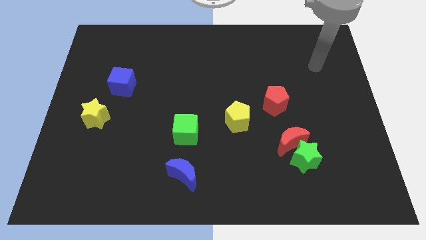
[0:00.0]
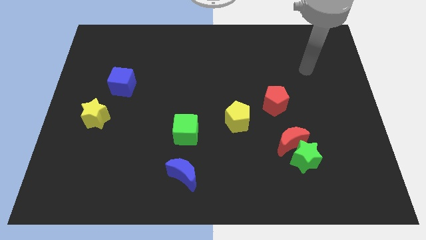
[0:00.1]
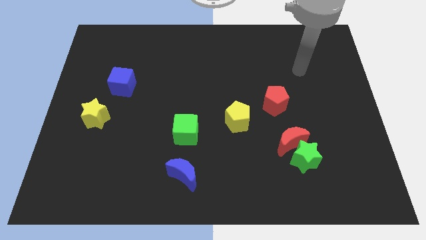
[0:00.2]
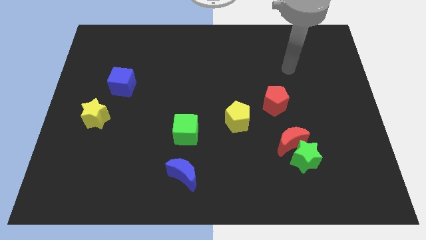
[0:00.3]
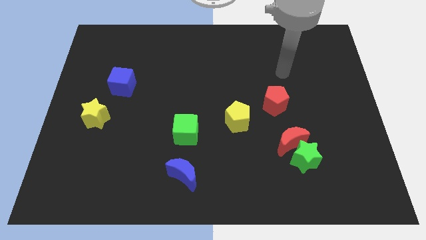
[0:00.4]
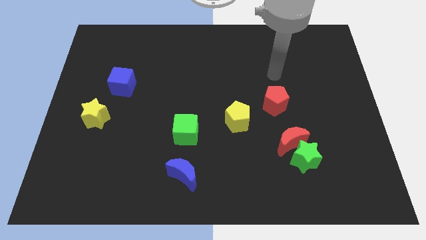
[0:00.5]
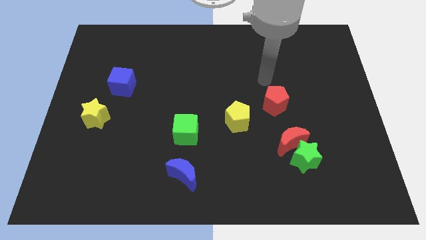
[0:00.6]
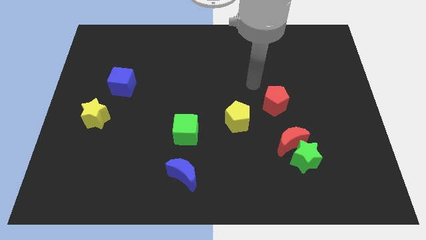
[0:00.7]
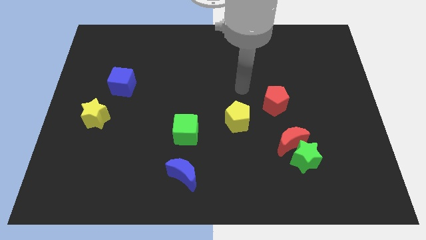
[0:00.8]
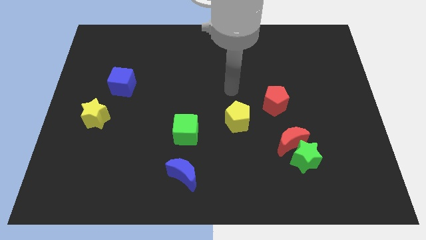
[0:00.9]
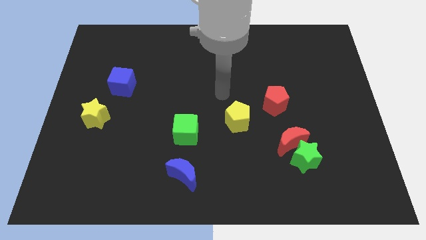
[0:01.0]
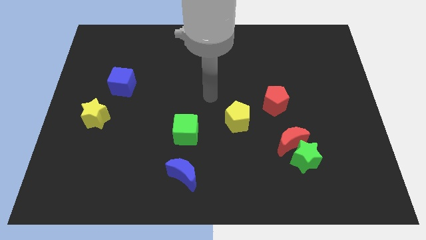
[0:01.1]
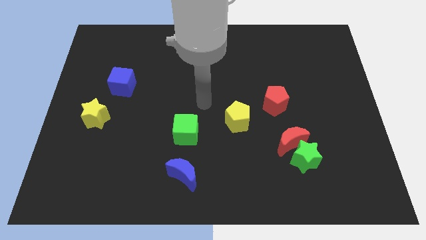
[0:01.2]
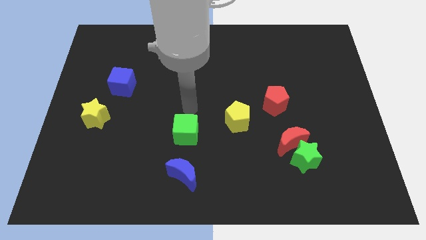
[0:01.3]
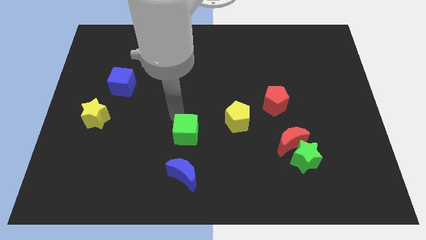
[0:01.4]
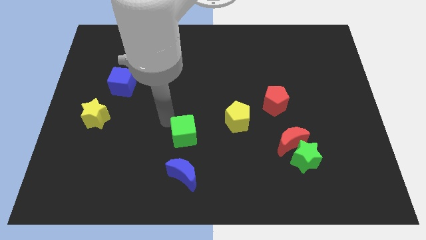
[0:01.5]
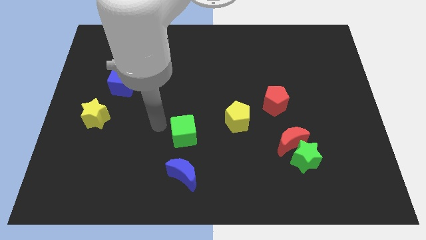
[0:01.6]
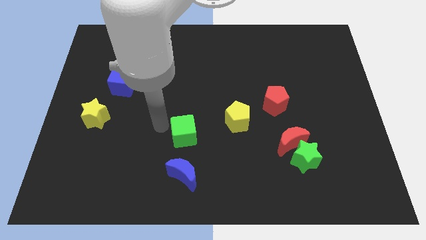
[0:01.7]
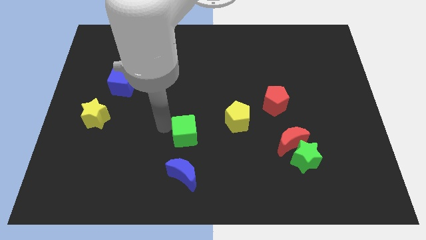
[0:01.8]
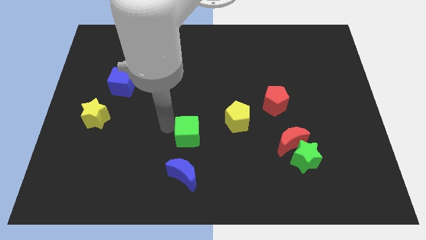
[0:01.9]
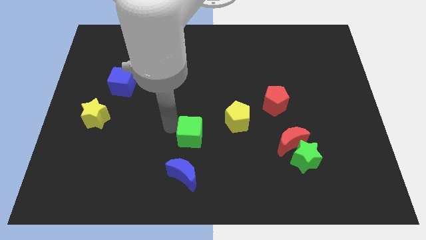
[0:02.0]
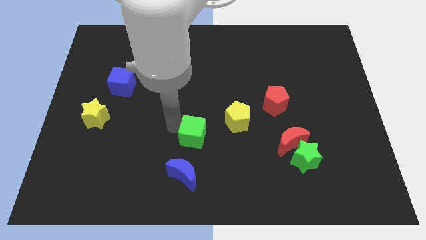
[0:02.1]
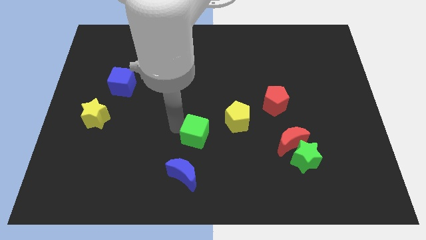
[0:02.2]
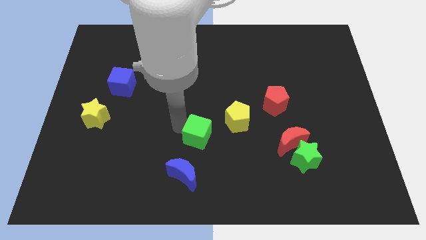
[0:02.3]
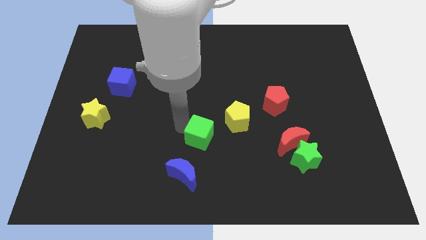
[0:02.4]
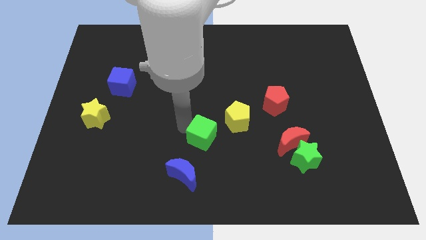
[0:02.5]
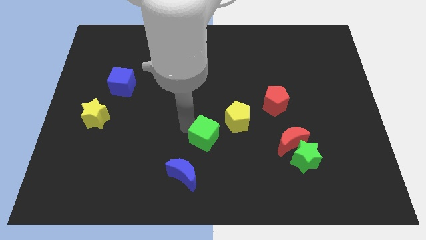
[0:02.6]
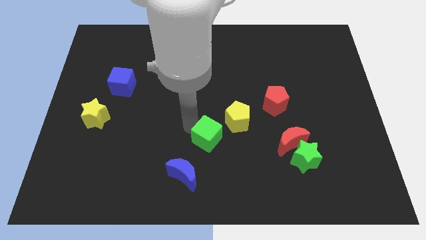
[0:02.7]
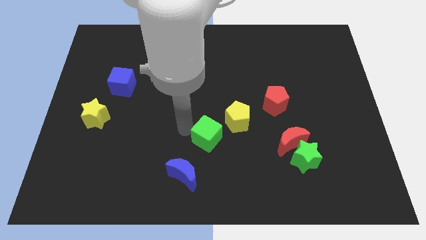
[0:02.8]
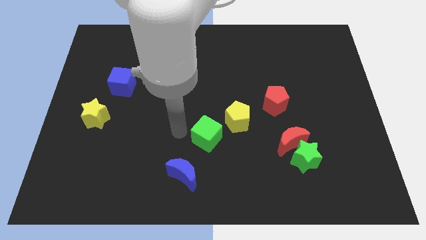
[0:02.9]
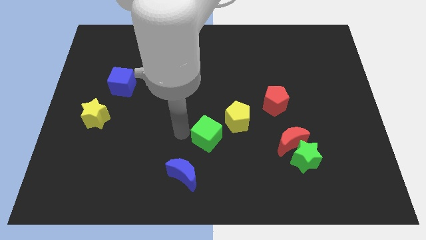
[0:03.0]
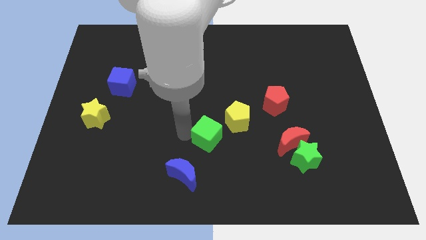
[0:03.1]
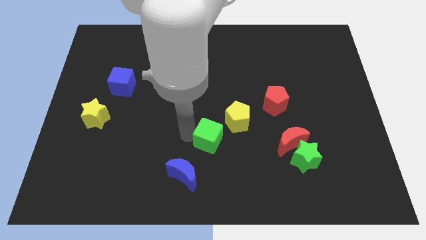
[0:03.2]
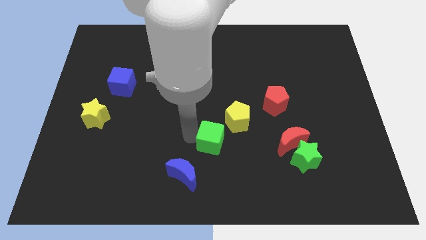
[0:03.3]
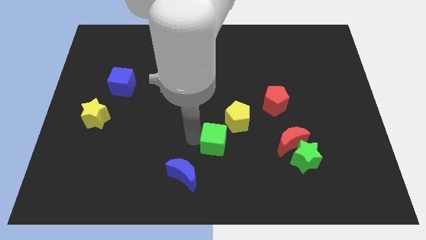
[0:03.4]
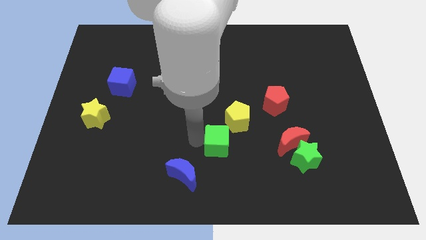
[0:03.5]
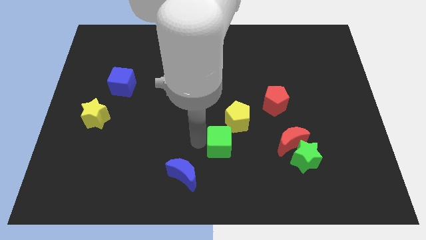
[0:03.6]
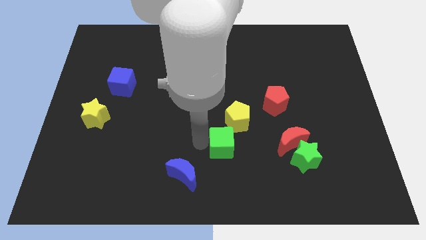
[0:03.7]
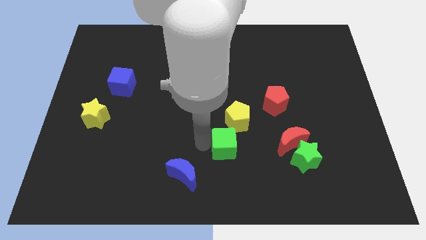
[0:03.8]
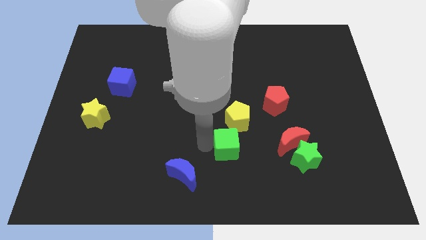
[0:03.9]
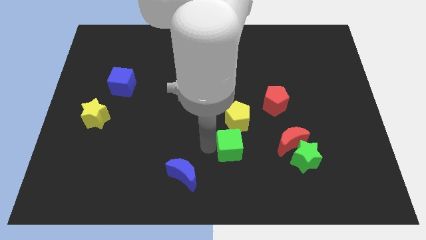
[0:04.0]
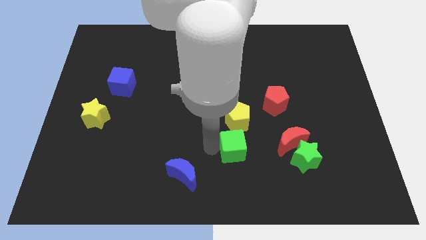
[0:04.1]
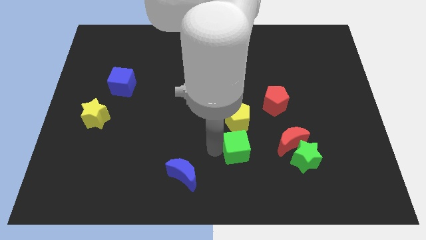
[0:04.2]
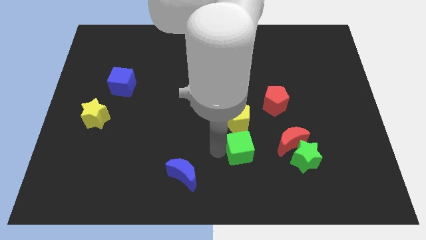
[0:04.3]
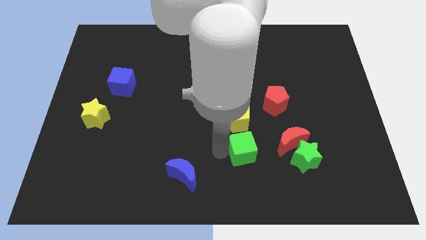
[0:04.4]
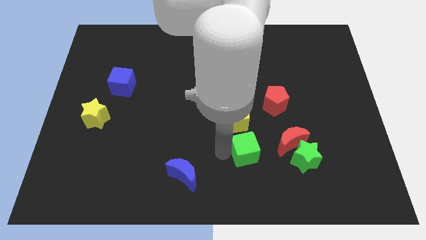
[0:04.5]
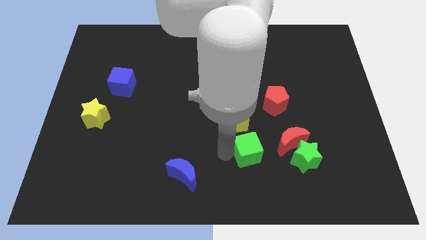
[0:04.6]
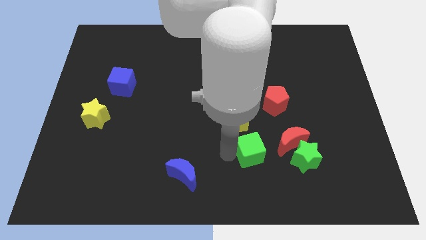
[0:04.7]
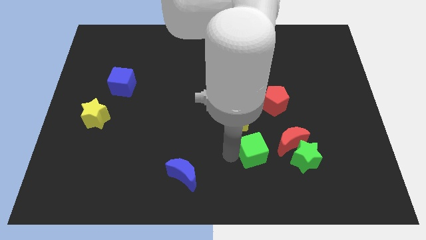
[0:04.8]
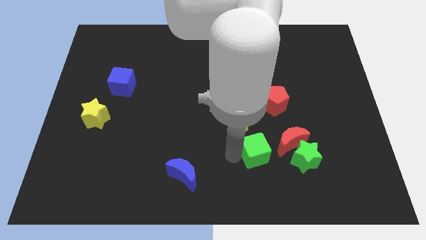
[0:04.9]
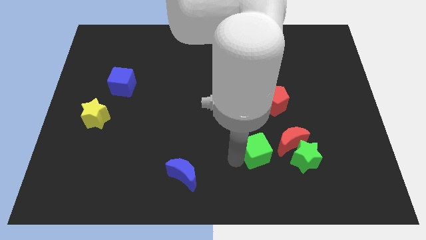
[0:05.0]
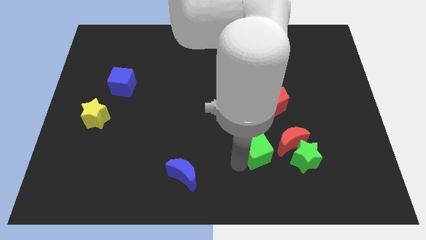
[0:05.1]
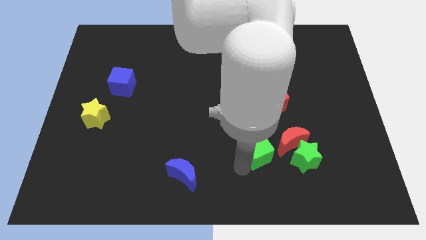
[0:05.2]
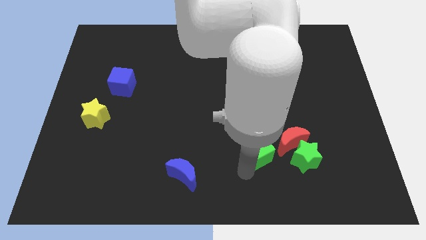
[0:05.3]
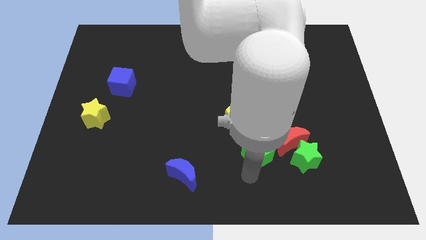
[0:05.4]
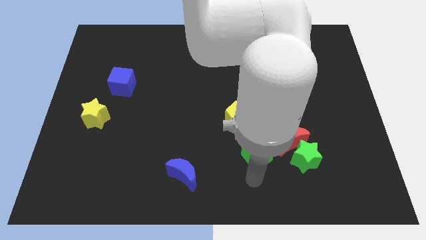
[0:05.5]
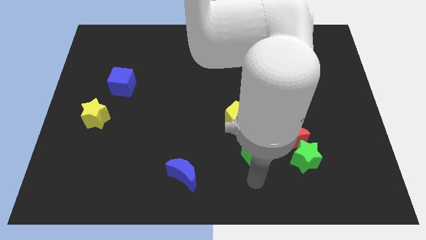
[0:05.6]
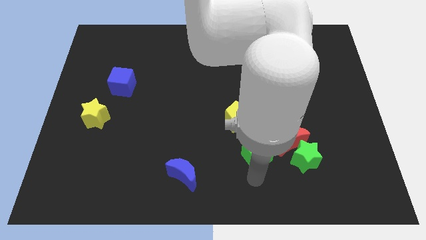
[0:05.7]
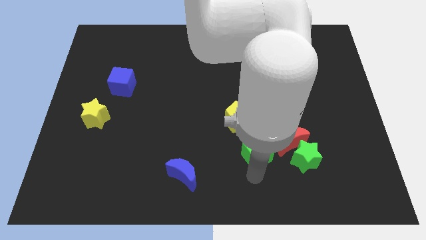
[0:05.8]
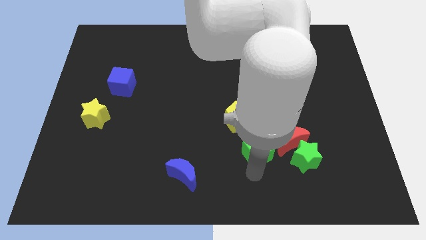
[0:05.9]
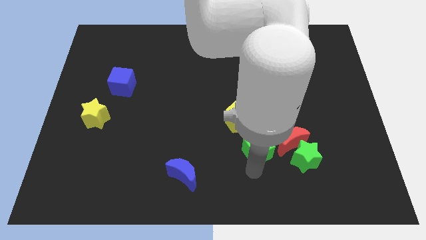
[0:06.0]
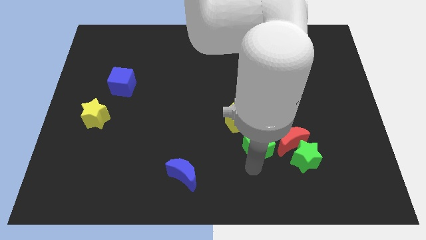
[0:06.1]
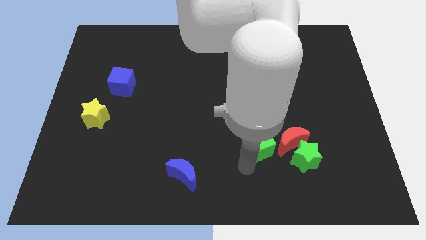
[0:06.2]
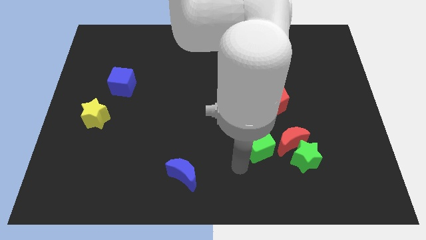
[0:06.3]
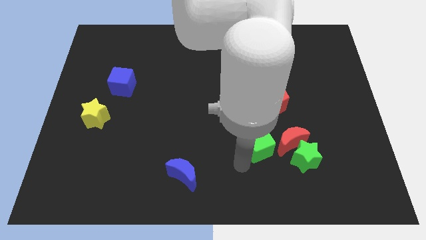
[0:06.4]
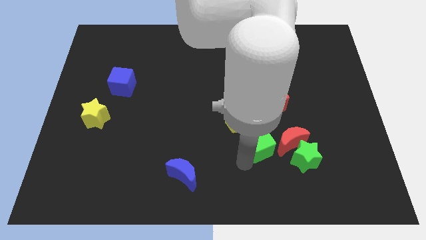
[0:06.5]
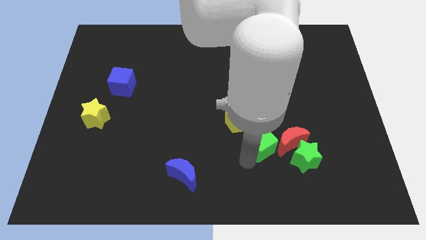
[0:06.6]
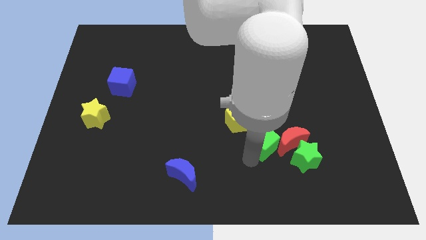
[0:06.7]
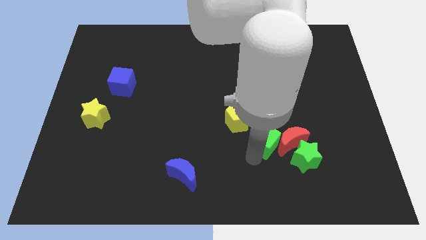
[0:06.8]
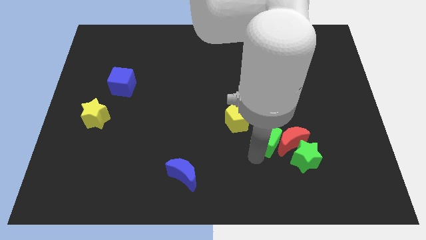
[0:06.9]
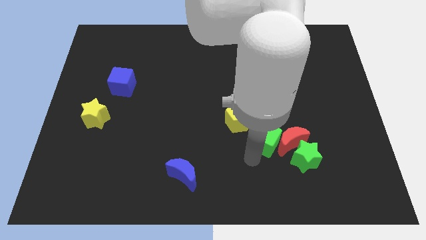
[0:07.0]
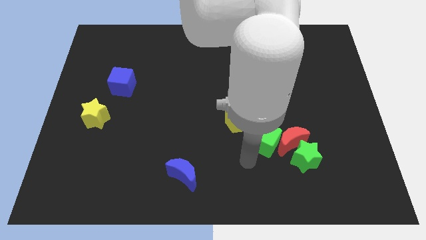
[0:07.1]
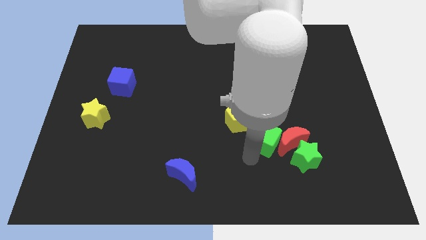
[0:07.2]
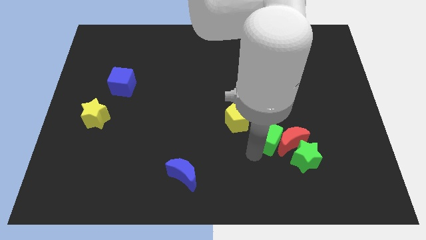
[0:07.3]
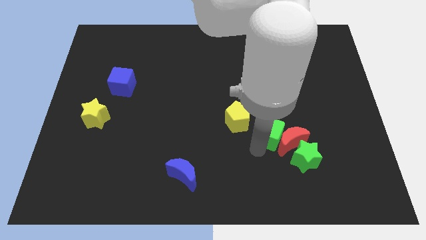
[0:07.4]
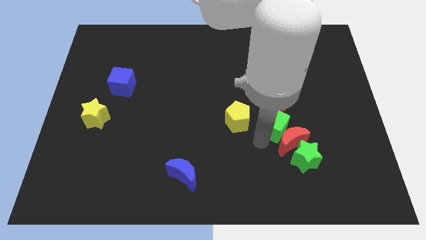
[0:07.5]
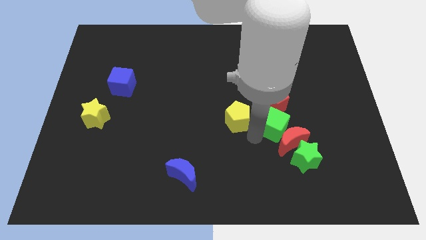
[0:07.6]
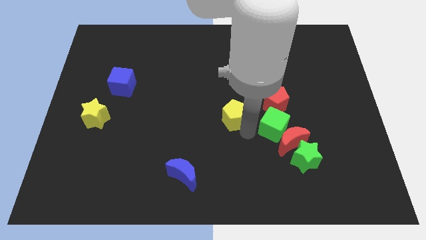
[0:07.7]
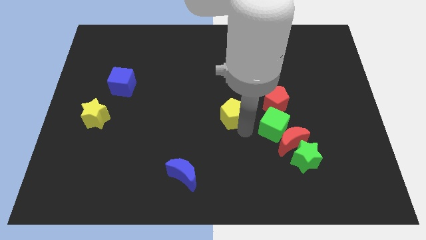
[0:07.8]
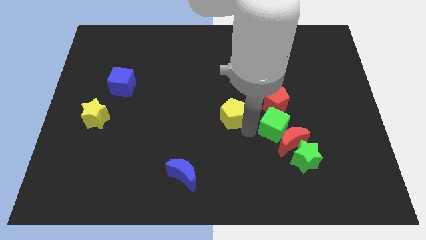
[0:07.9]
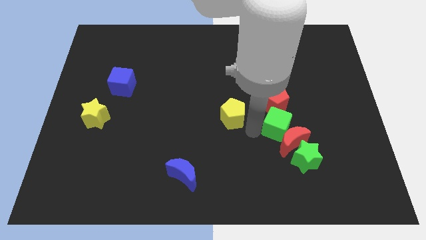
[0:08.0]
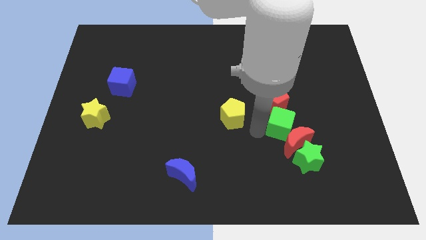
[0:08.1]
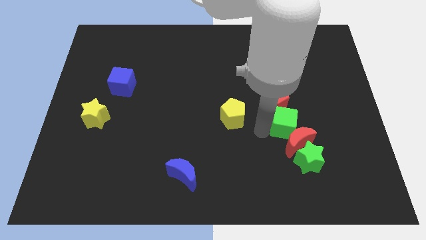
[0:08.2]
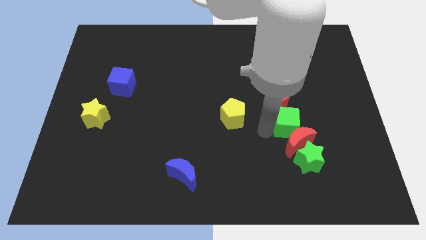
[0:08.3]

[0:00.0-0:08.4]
move the green cube to the top right of the red moon
